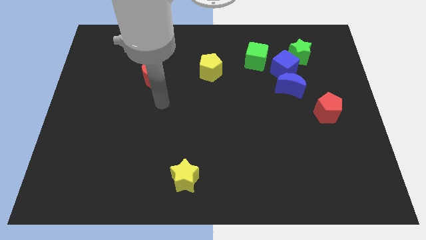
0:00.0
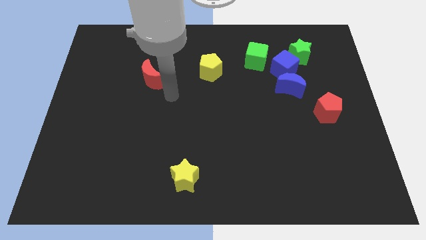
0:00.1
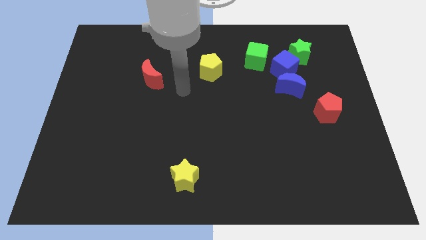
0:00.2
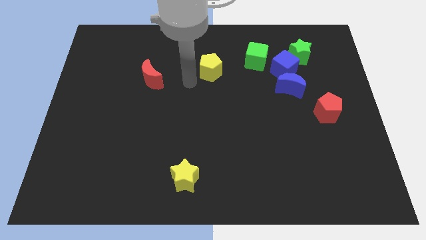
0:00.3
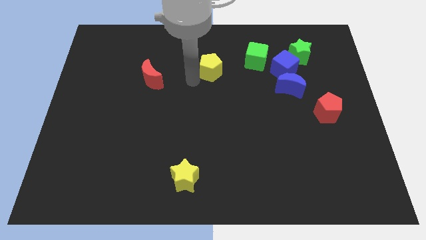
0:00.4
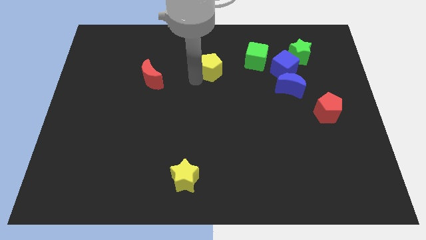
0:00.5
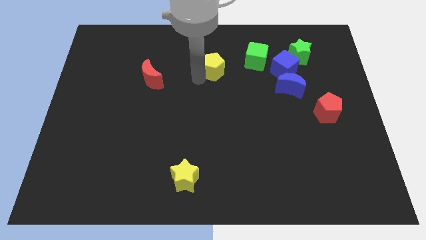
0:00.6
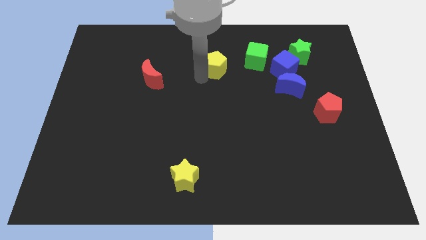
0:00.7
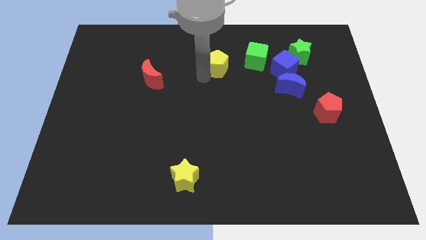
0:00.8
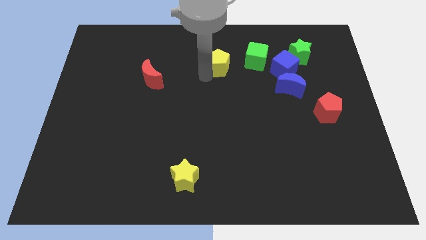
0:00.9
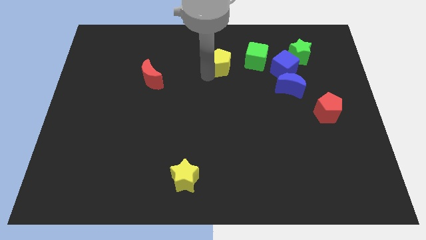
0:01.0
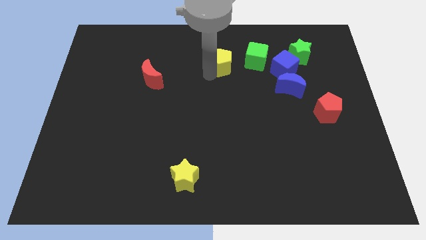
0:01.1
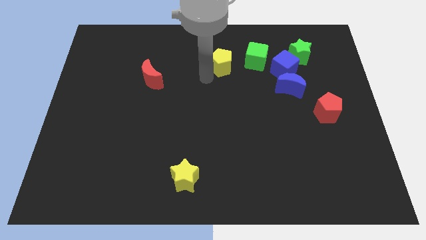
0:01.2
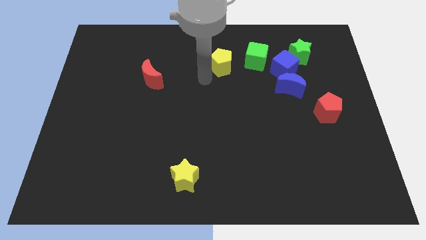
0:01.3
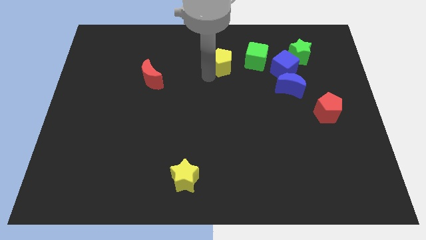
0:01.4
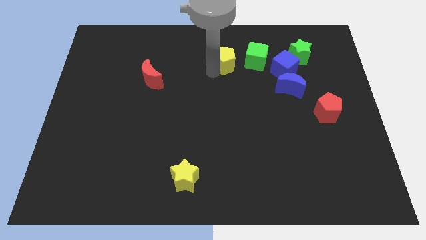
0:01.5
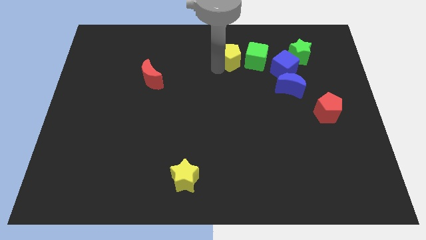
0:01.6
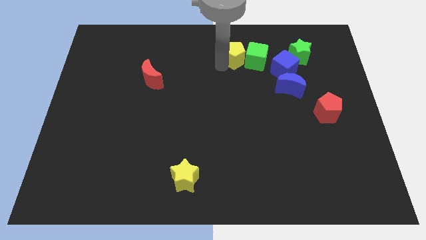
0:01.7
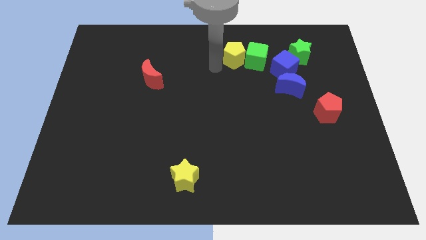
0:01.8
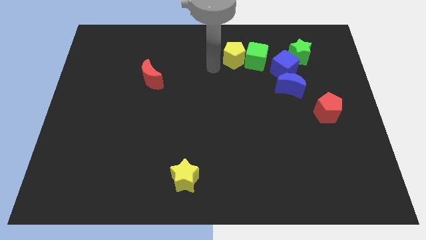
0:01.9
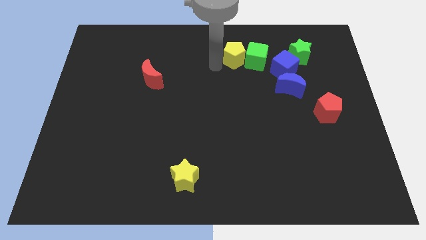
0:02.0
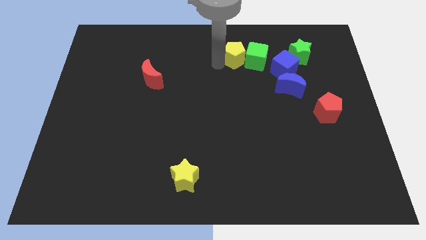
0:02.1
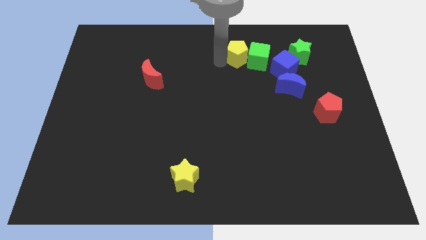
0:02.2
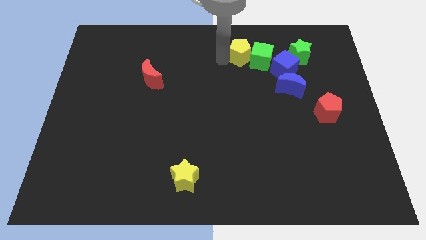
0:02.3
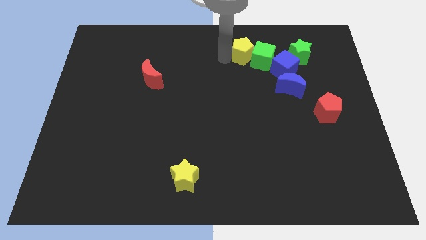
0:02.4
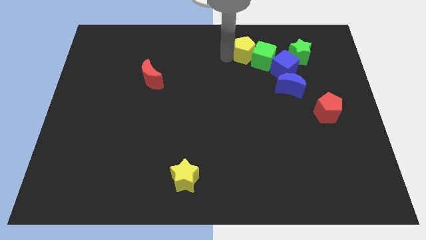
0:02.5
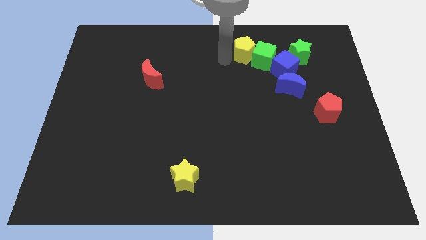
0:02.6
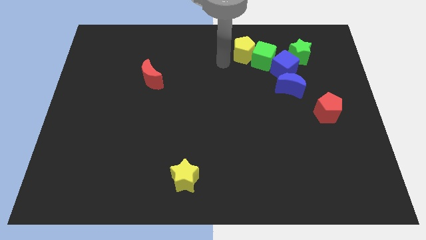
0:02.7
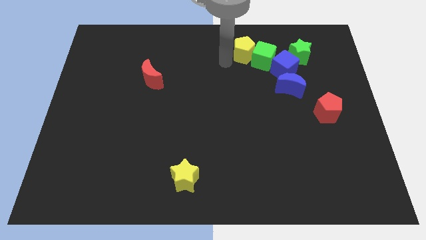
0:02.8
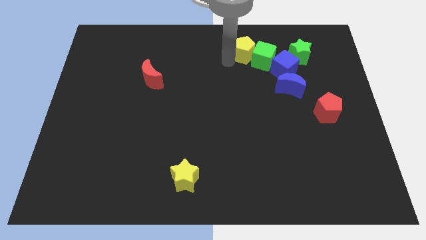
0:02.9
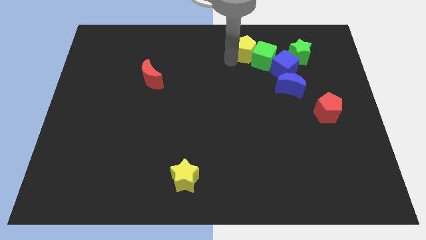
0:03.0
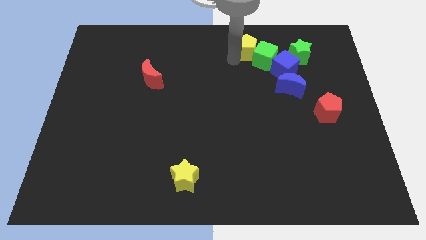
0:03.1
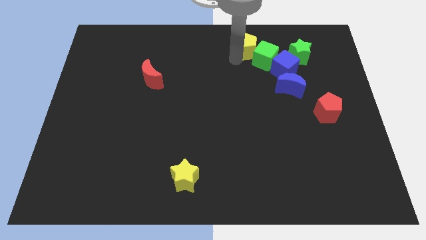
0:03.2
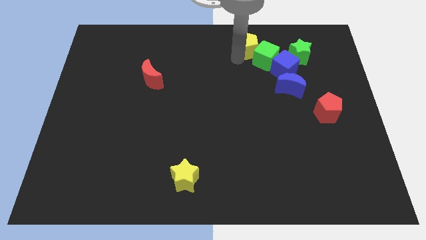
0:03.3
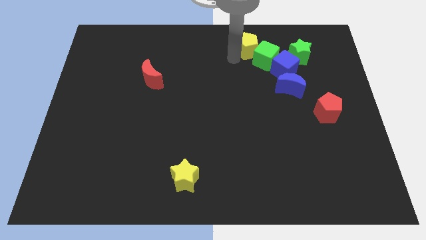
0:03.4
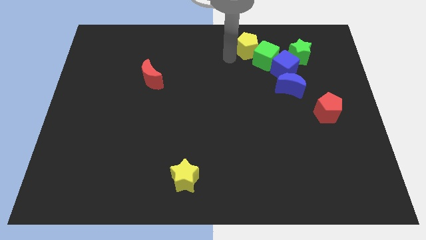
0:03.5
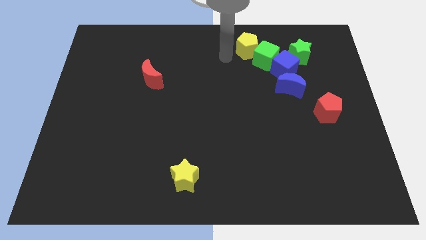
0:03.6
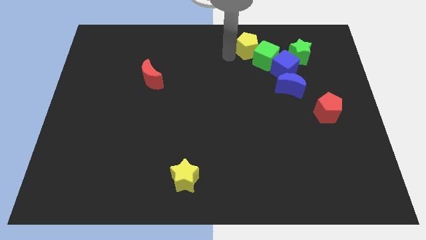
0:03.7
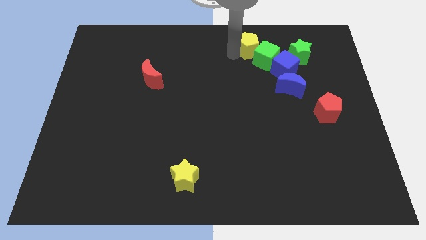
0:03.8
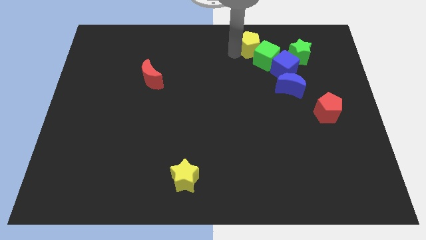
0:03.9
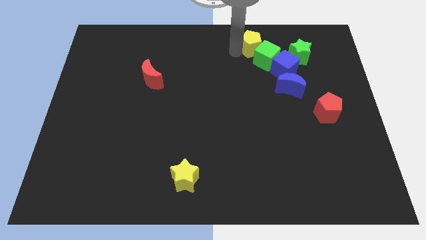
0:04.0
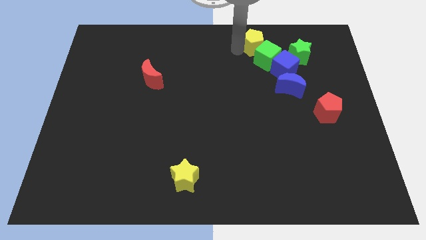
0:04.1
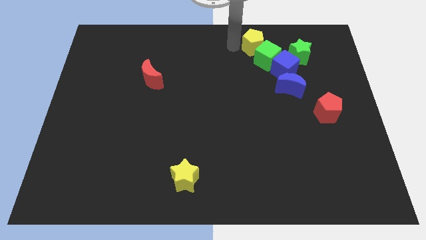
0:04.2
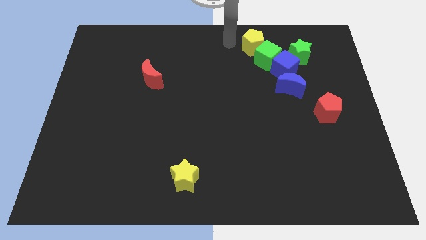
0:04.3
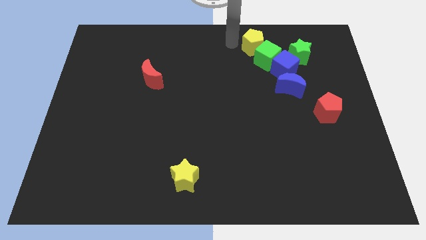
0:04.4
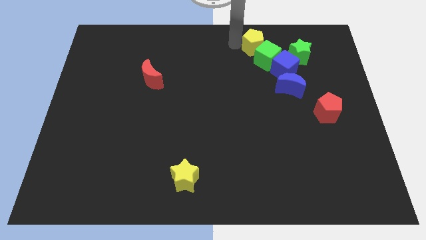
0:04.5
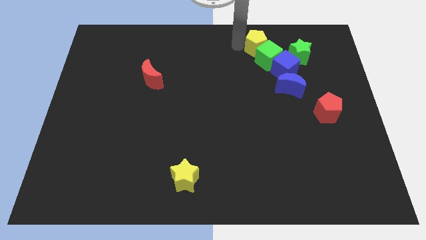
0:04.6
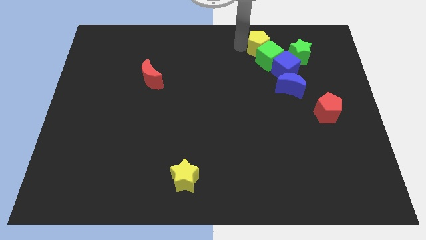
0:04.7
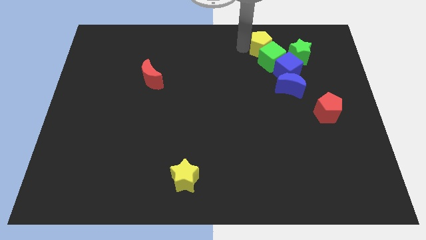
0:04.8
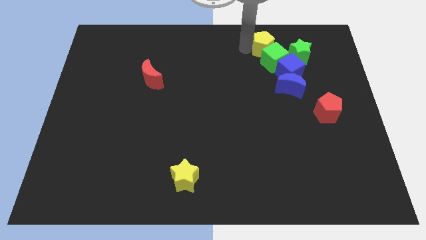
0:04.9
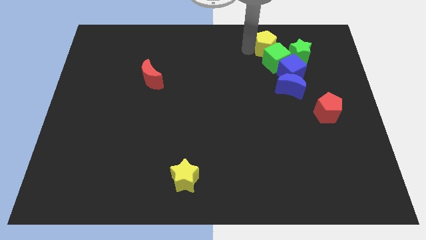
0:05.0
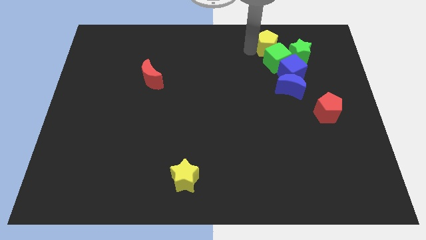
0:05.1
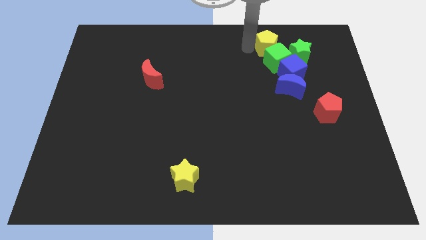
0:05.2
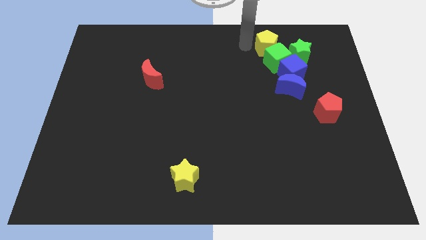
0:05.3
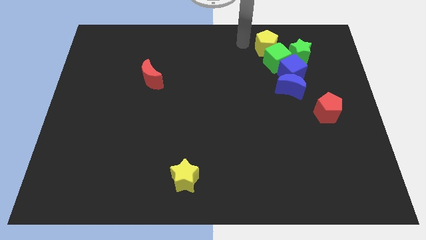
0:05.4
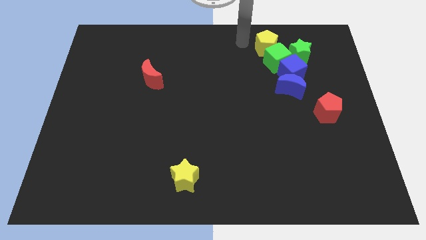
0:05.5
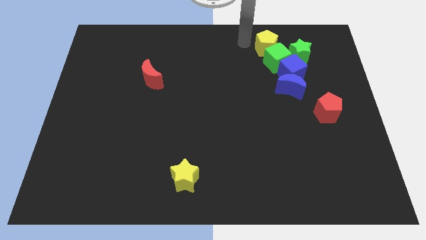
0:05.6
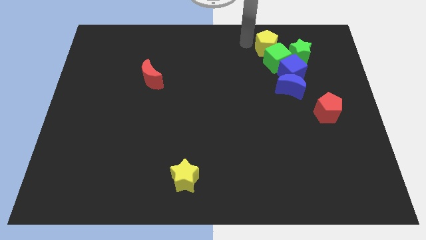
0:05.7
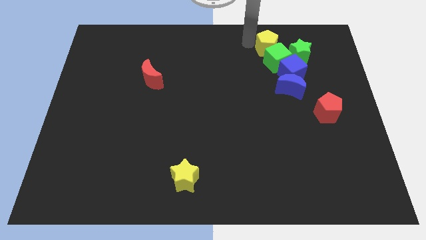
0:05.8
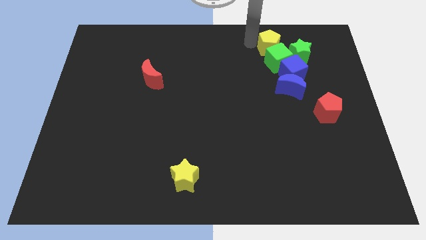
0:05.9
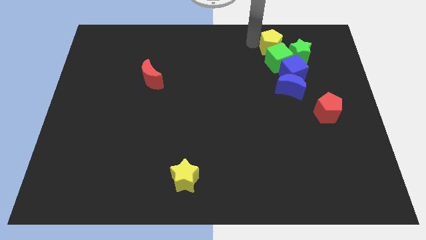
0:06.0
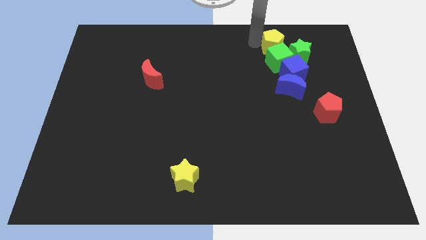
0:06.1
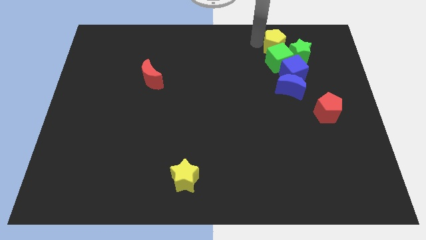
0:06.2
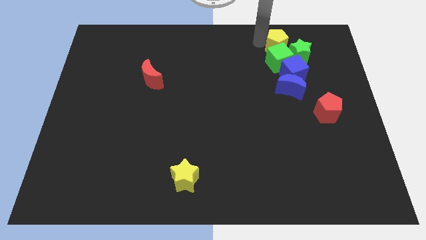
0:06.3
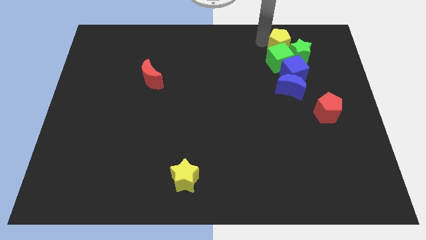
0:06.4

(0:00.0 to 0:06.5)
move the yellow pentagon to the green star

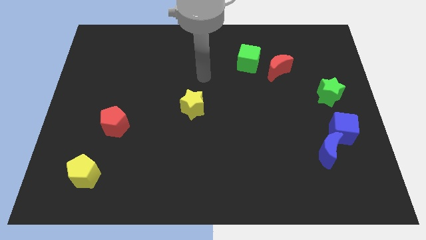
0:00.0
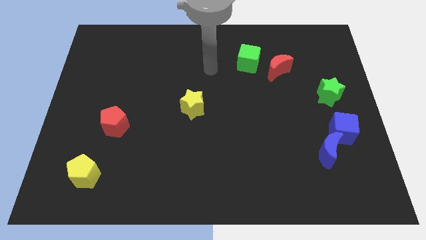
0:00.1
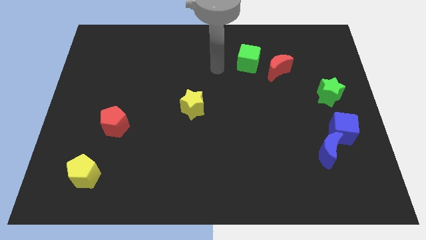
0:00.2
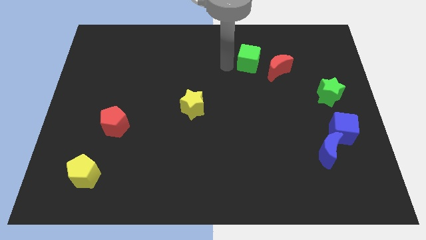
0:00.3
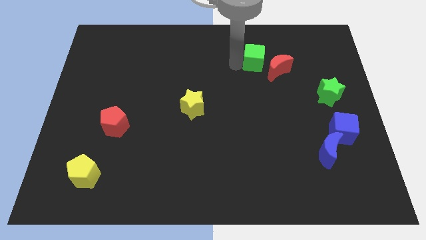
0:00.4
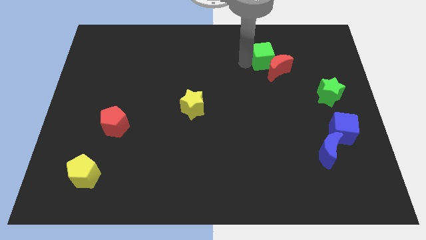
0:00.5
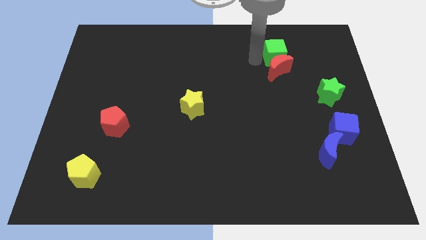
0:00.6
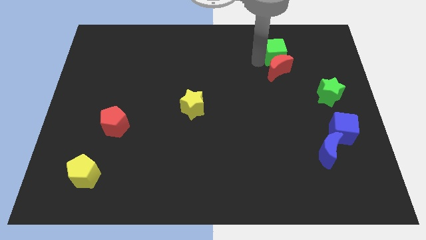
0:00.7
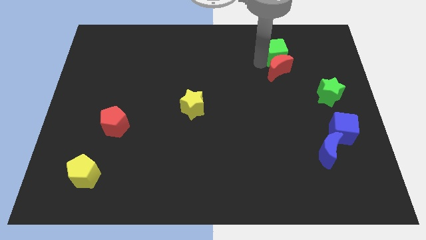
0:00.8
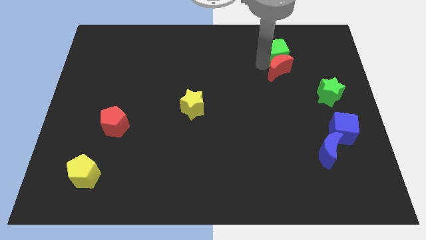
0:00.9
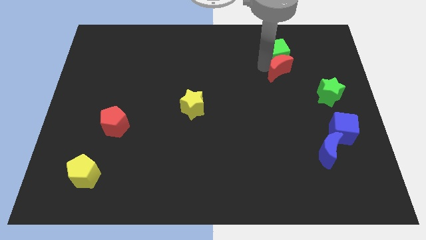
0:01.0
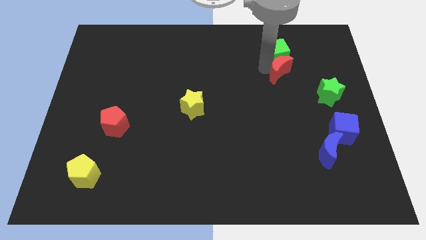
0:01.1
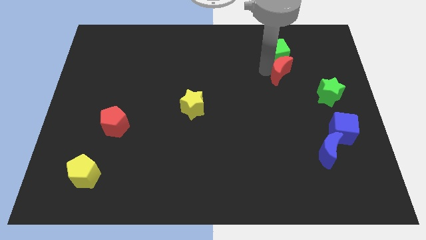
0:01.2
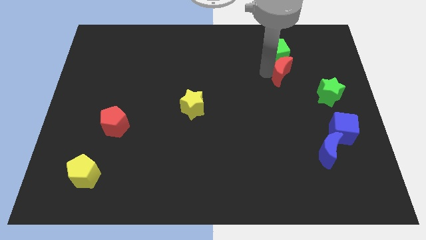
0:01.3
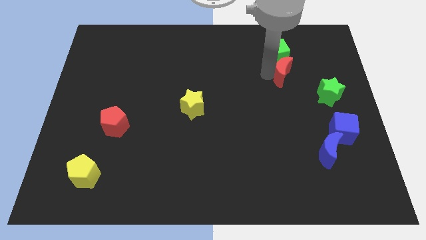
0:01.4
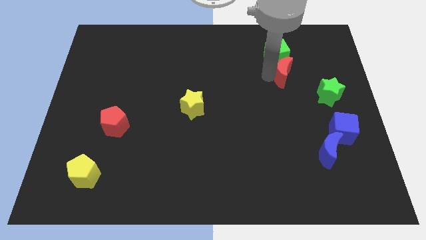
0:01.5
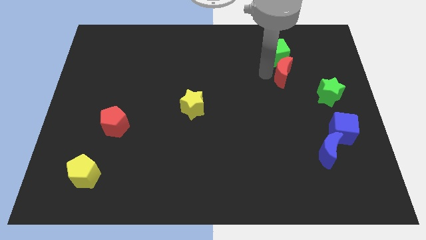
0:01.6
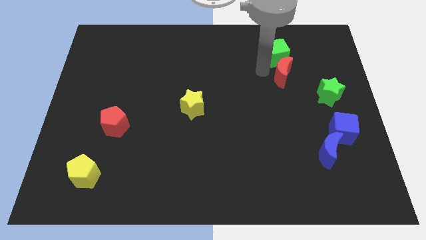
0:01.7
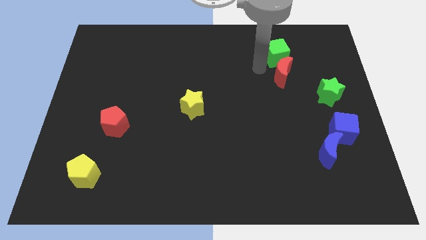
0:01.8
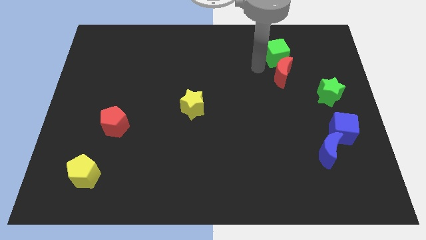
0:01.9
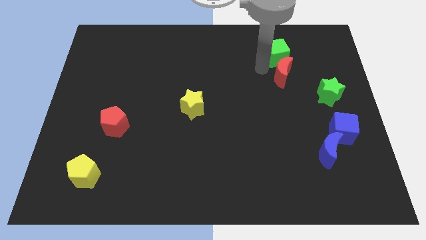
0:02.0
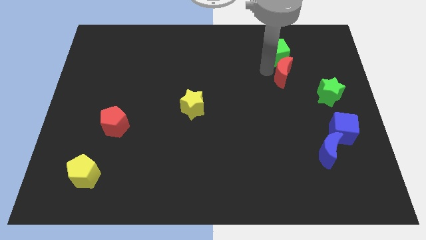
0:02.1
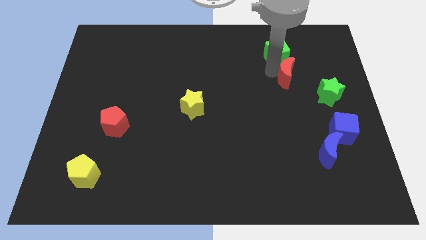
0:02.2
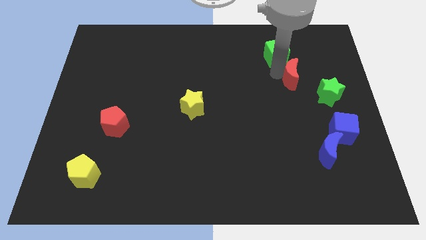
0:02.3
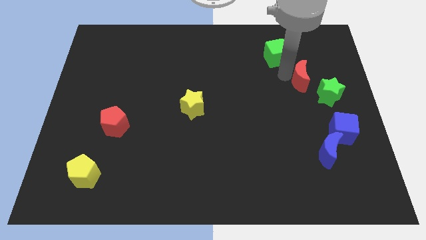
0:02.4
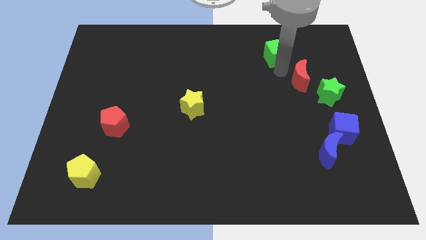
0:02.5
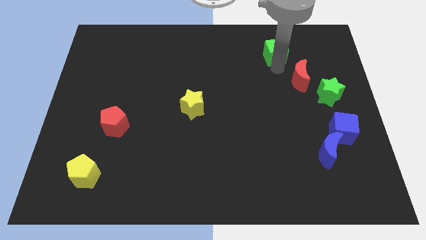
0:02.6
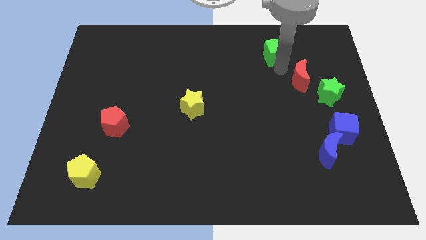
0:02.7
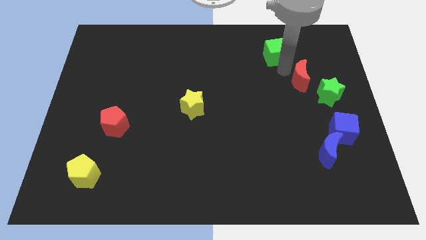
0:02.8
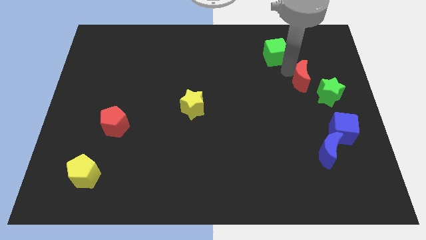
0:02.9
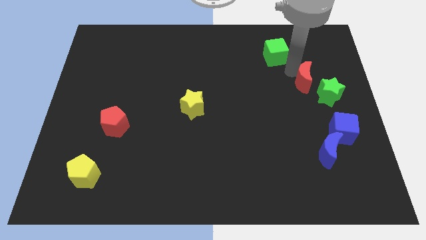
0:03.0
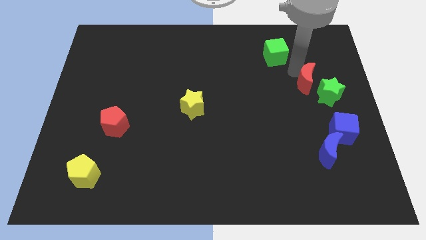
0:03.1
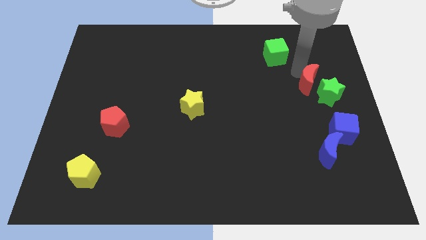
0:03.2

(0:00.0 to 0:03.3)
put the red moon to the green star
